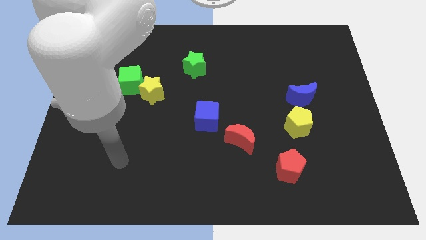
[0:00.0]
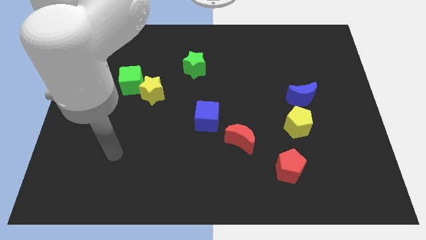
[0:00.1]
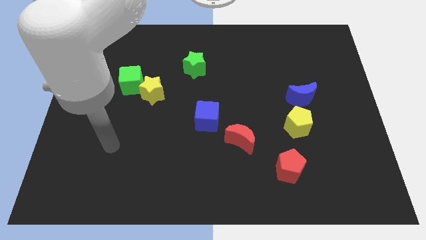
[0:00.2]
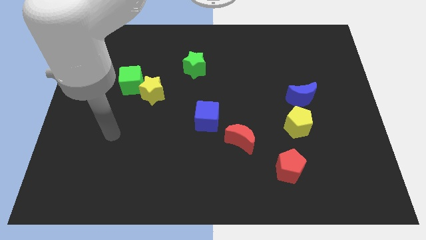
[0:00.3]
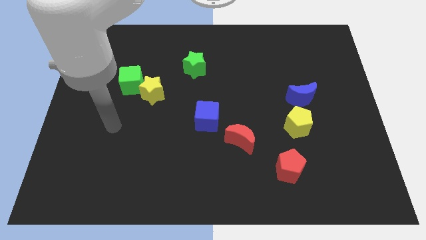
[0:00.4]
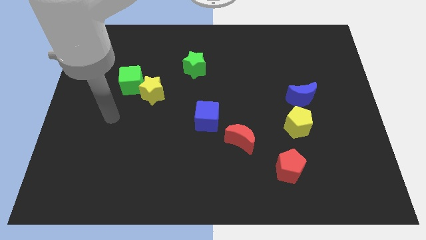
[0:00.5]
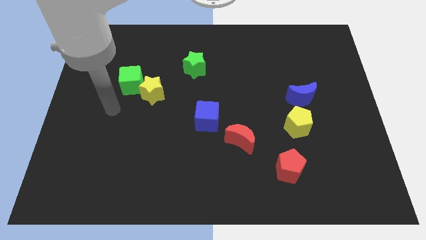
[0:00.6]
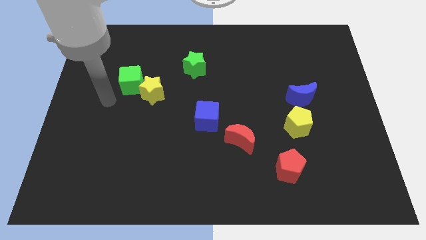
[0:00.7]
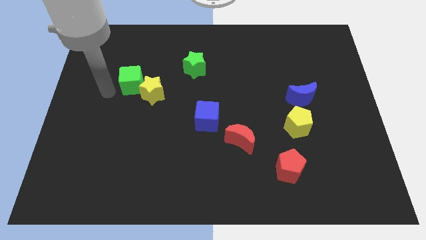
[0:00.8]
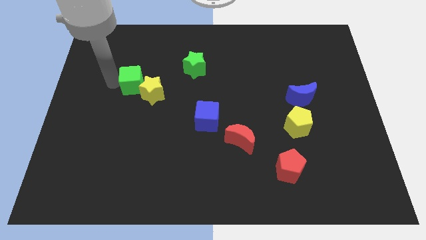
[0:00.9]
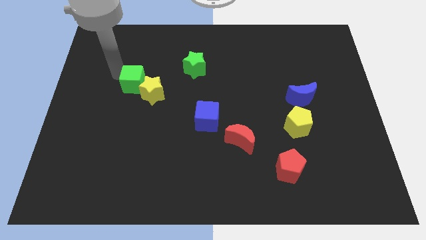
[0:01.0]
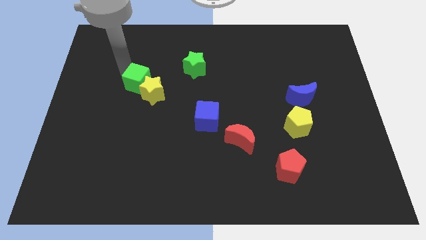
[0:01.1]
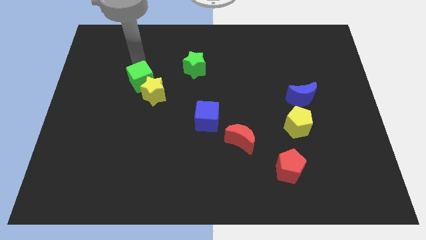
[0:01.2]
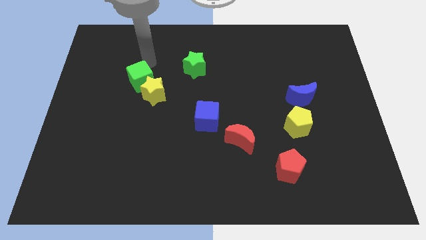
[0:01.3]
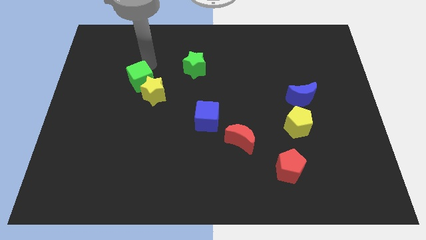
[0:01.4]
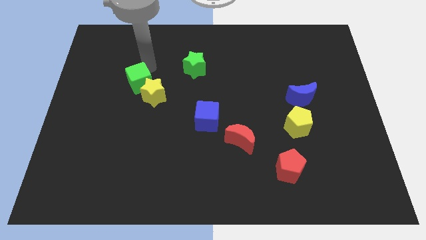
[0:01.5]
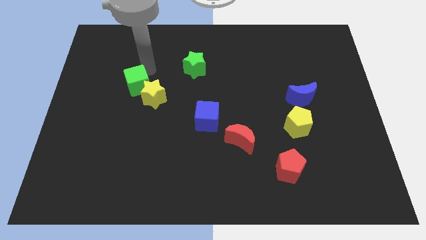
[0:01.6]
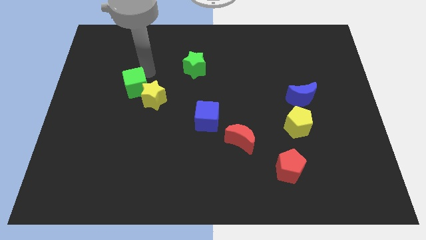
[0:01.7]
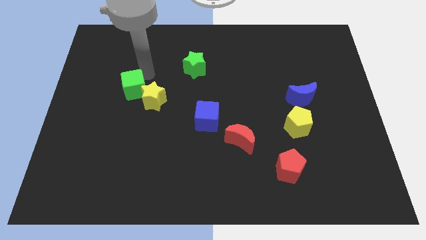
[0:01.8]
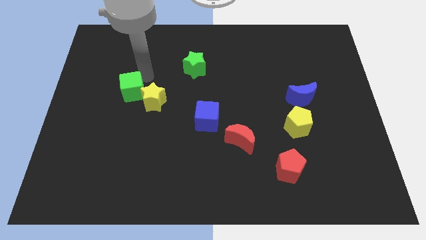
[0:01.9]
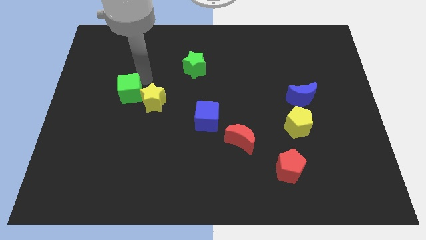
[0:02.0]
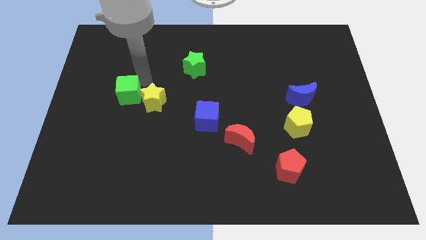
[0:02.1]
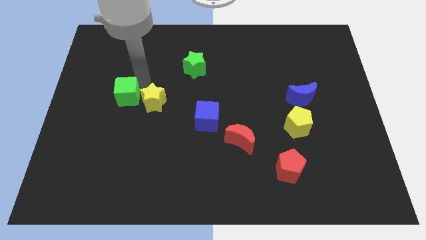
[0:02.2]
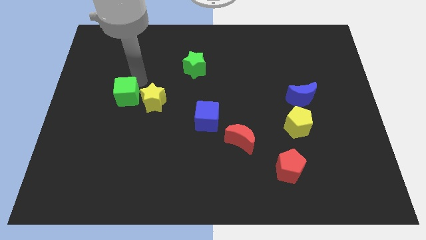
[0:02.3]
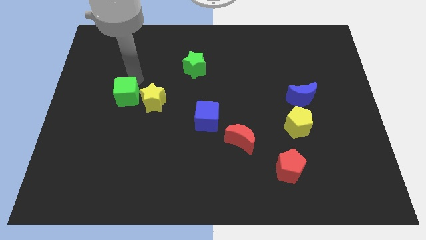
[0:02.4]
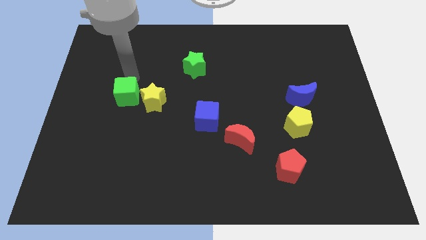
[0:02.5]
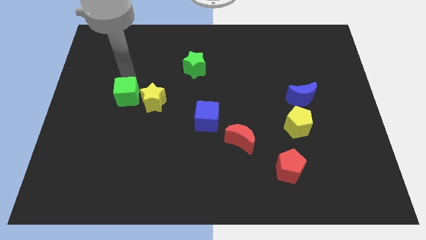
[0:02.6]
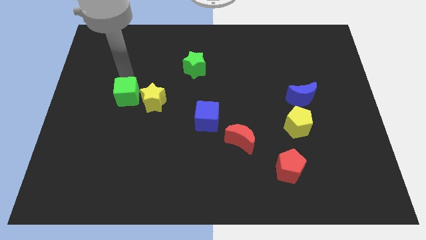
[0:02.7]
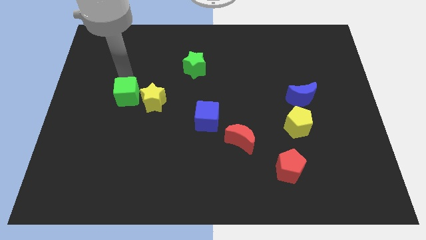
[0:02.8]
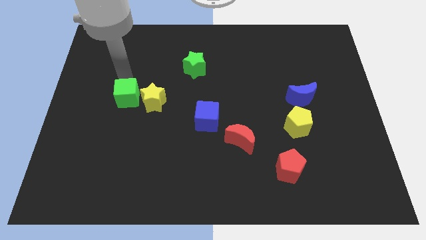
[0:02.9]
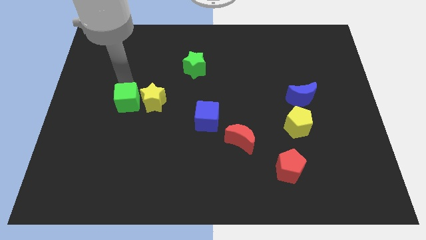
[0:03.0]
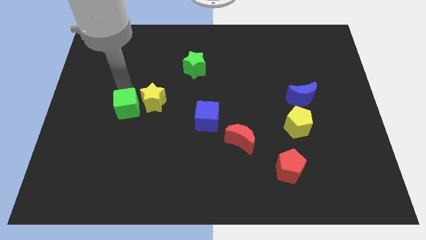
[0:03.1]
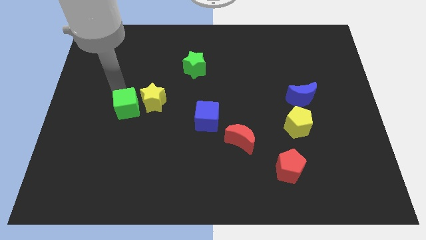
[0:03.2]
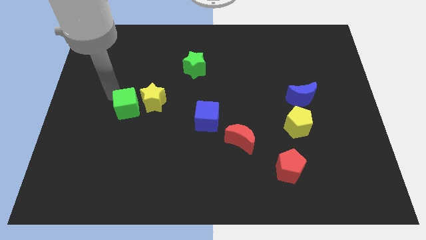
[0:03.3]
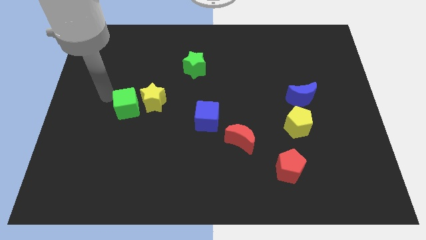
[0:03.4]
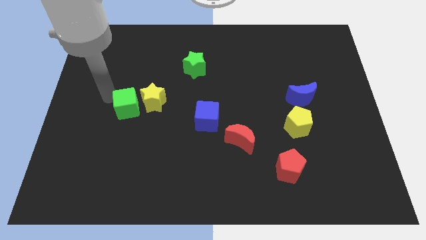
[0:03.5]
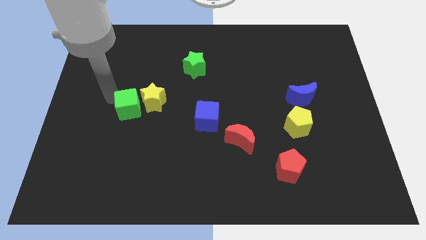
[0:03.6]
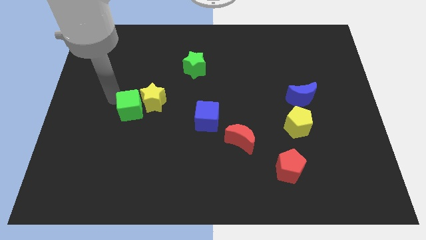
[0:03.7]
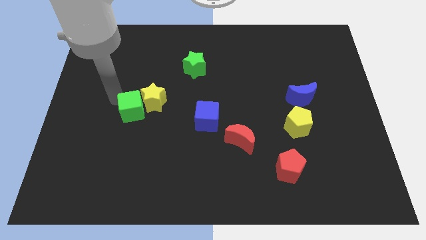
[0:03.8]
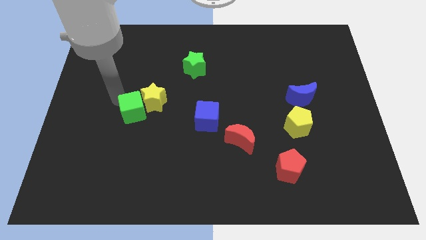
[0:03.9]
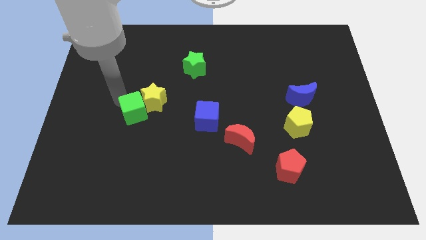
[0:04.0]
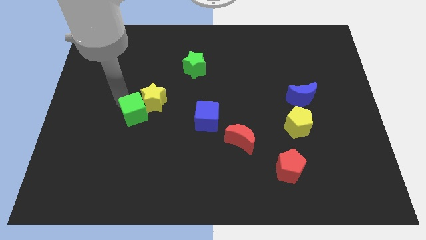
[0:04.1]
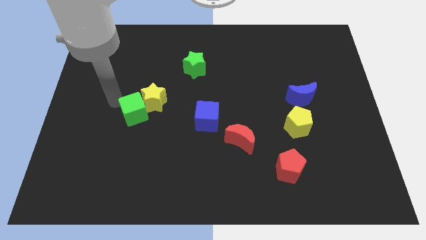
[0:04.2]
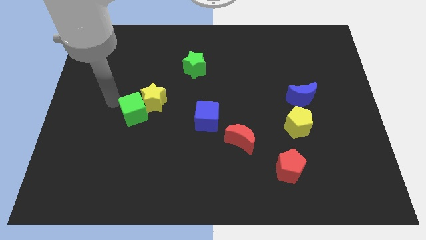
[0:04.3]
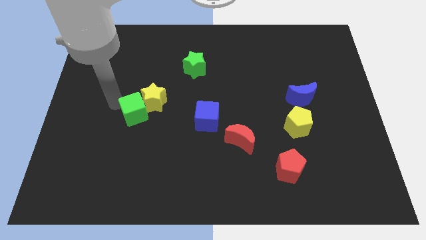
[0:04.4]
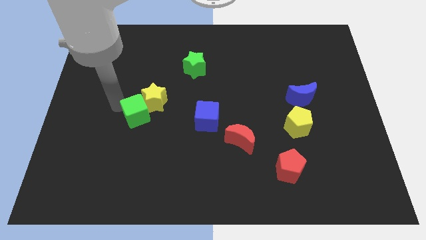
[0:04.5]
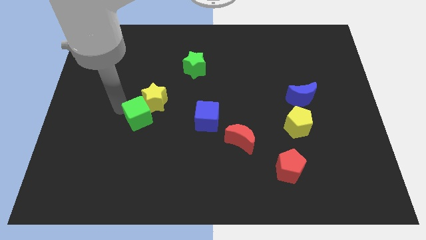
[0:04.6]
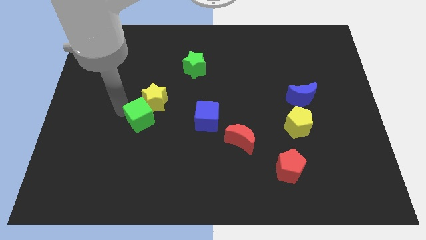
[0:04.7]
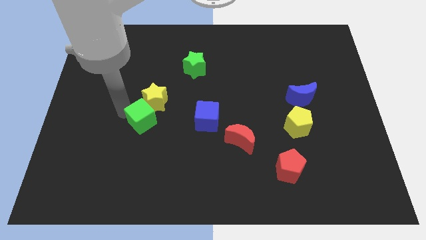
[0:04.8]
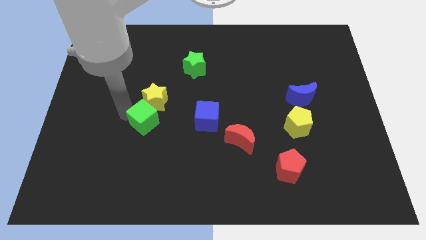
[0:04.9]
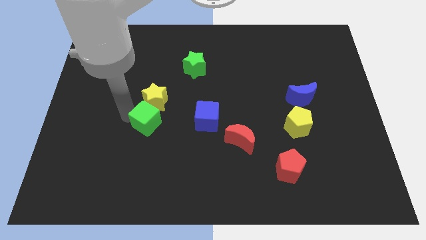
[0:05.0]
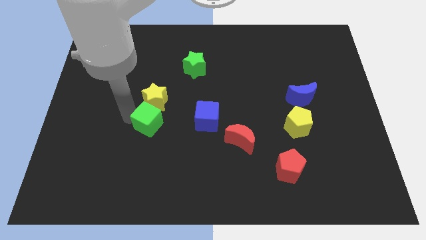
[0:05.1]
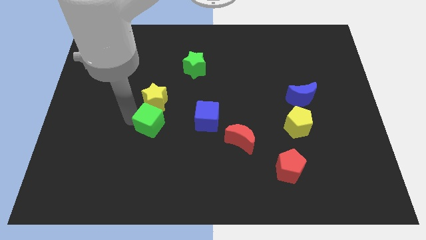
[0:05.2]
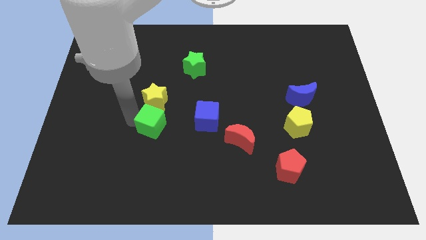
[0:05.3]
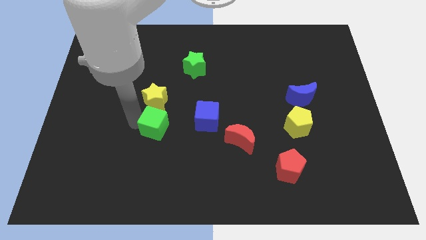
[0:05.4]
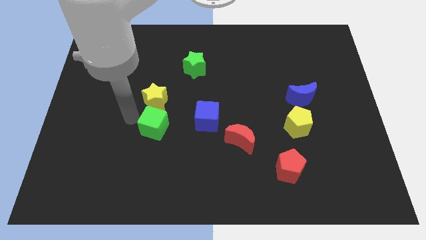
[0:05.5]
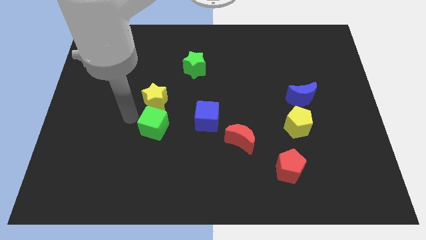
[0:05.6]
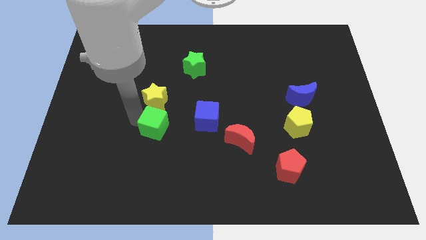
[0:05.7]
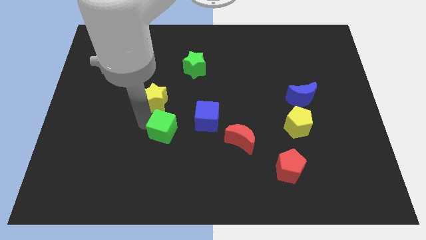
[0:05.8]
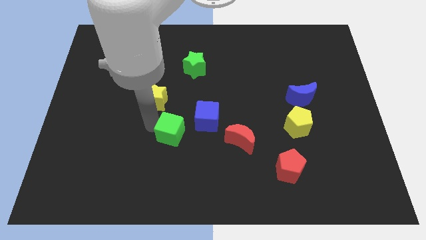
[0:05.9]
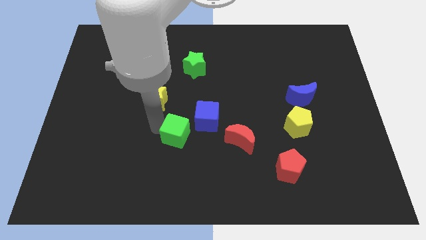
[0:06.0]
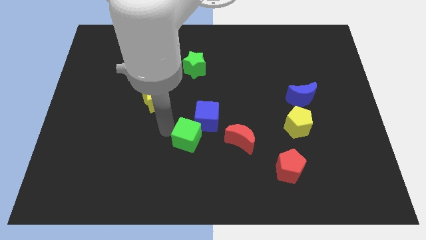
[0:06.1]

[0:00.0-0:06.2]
push the green cube down and right diagonally

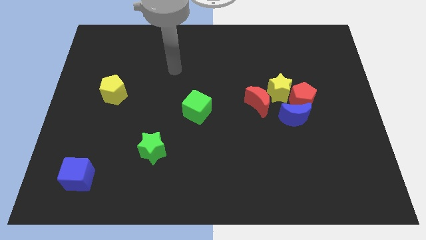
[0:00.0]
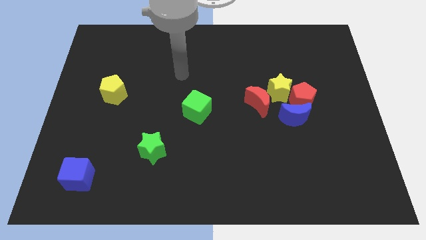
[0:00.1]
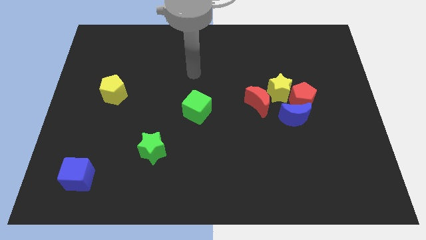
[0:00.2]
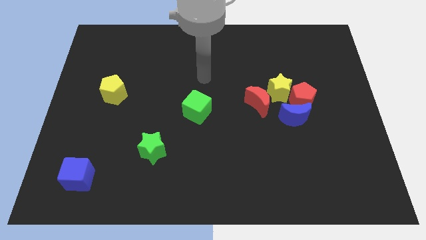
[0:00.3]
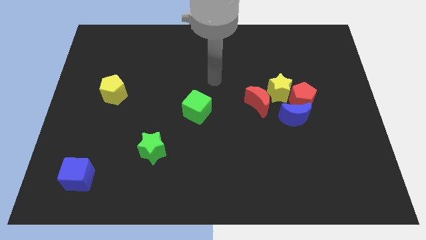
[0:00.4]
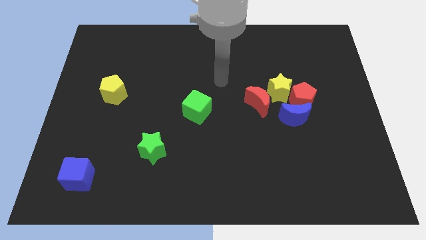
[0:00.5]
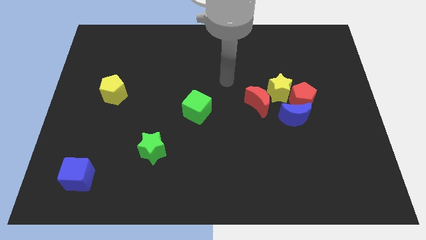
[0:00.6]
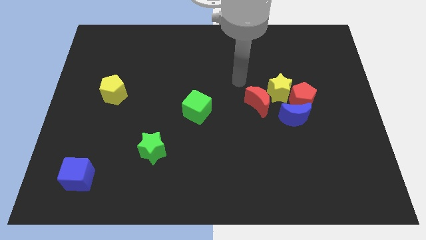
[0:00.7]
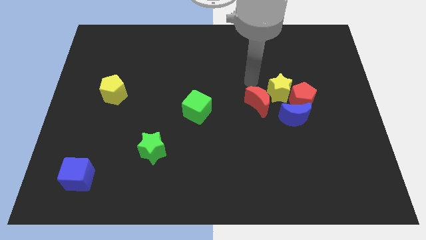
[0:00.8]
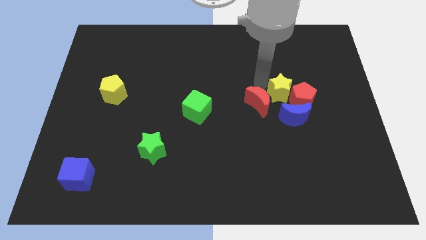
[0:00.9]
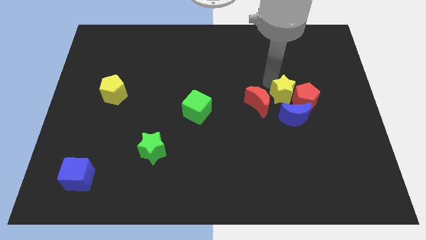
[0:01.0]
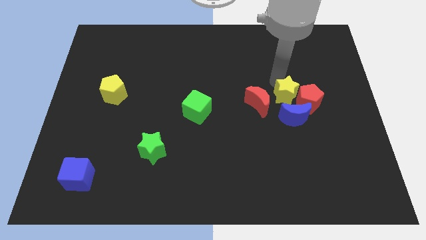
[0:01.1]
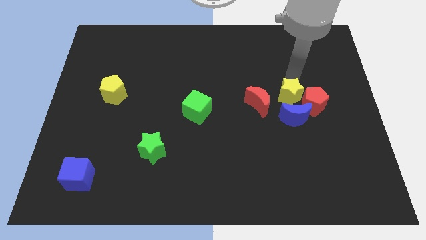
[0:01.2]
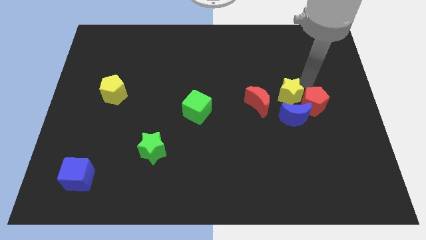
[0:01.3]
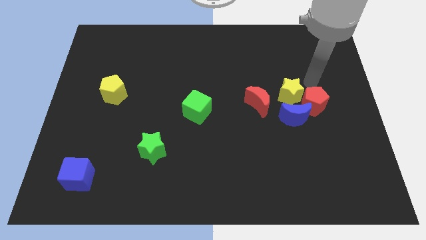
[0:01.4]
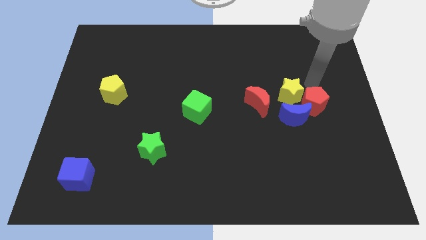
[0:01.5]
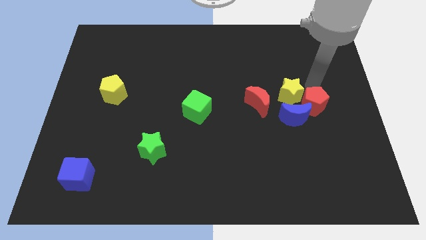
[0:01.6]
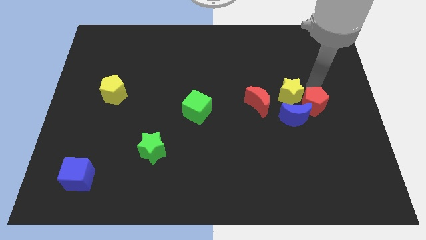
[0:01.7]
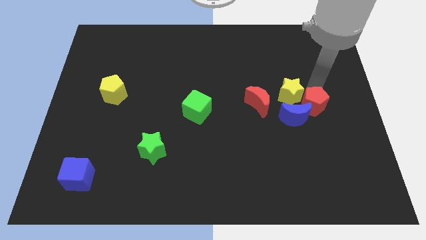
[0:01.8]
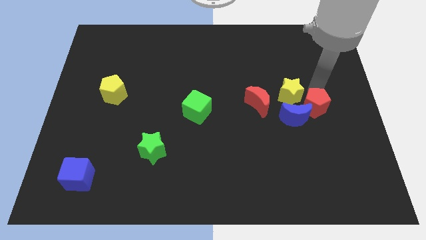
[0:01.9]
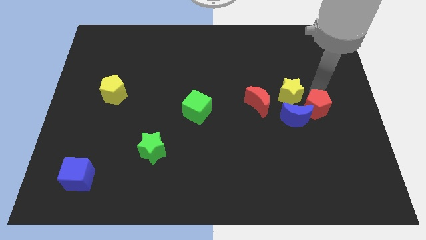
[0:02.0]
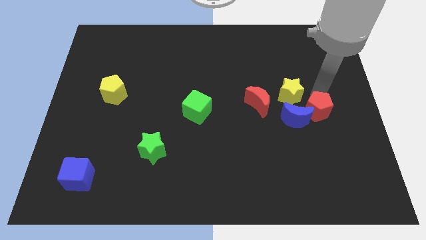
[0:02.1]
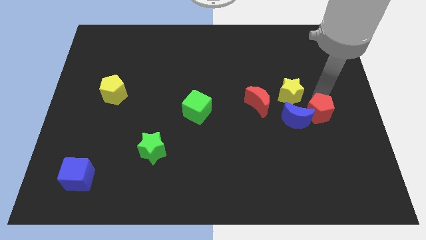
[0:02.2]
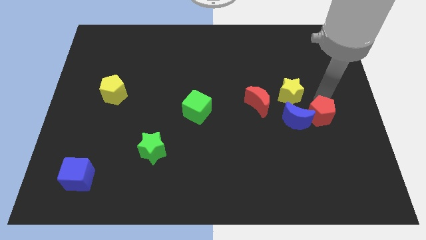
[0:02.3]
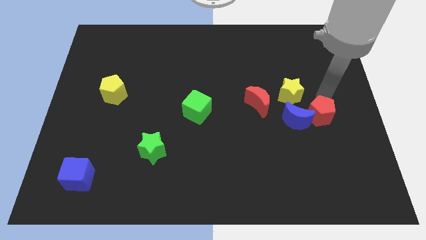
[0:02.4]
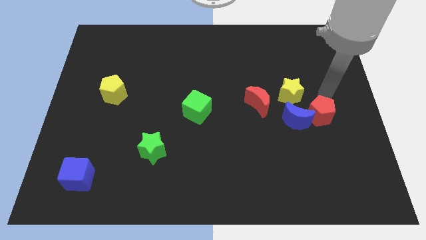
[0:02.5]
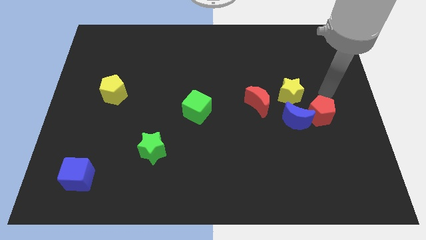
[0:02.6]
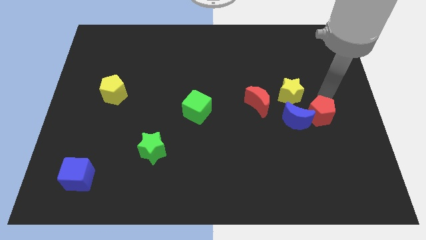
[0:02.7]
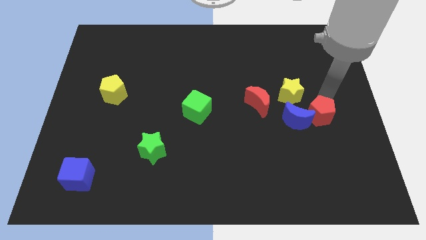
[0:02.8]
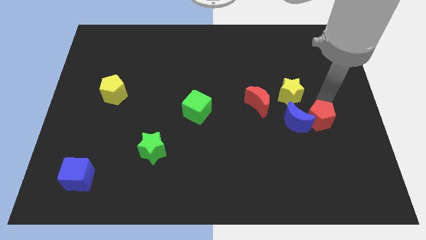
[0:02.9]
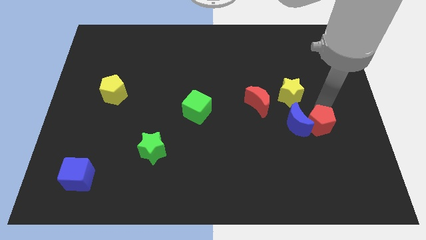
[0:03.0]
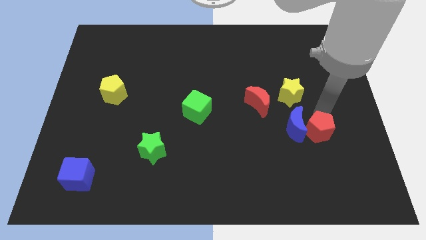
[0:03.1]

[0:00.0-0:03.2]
move the red pentagon a little bit downwards
